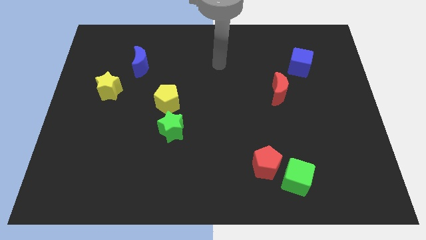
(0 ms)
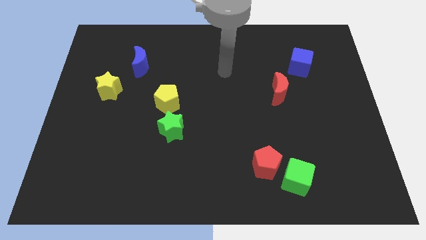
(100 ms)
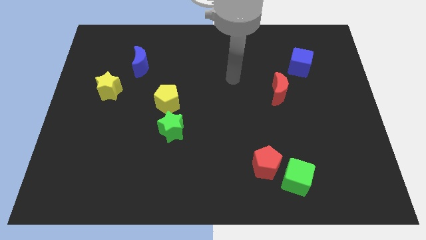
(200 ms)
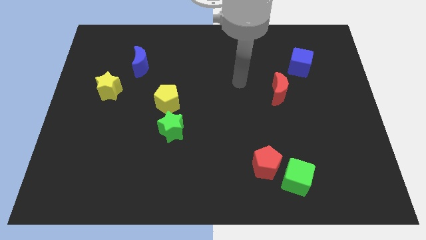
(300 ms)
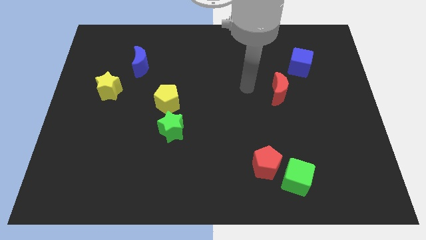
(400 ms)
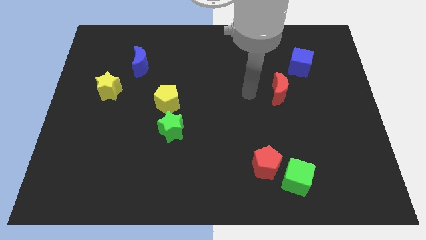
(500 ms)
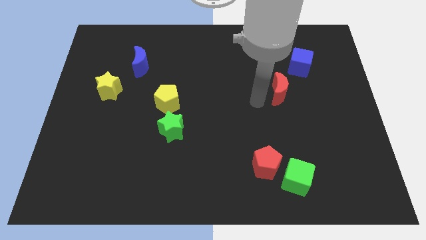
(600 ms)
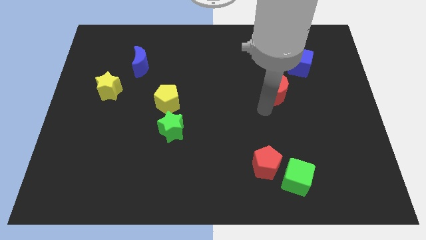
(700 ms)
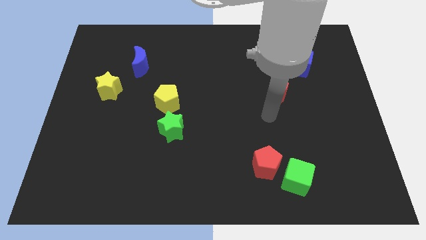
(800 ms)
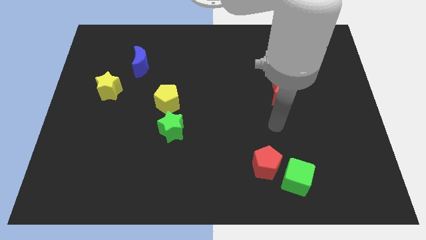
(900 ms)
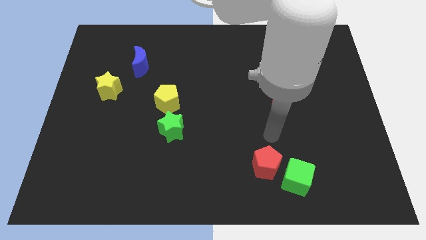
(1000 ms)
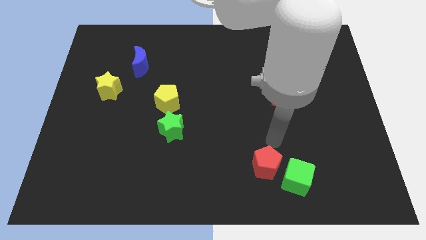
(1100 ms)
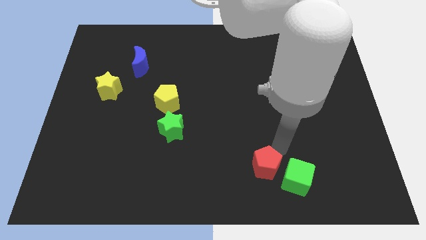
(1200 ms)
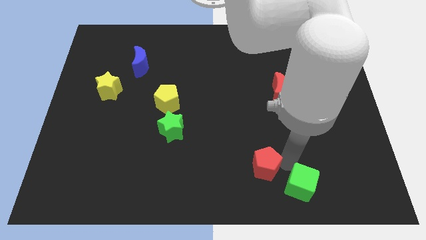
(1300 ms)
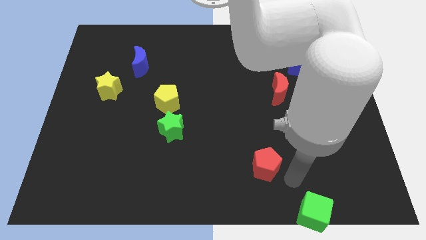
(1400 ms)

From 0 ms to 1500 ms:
pull the red pentagon apart from the green cube

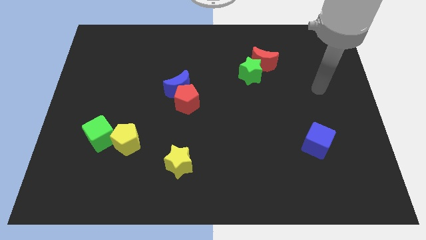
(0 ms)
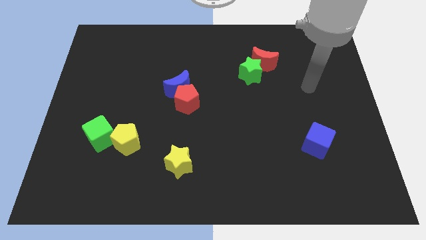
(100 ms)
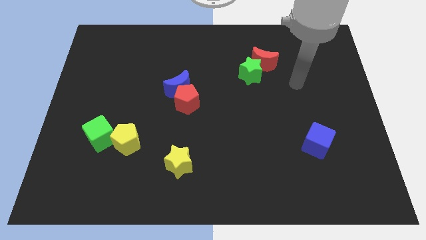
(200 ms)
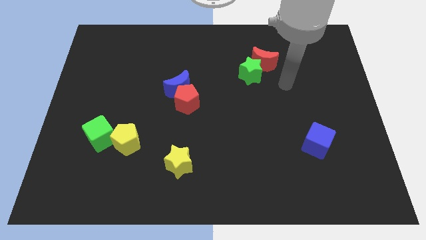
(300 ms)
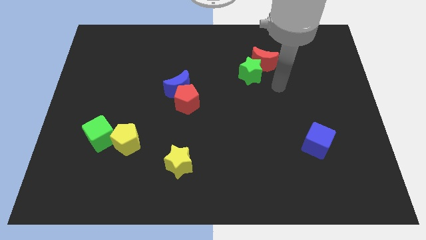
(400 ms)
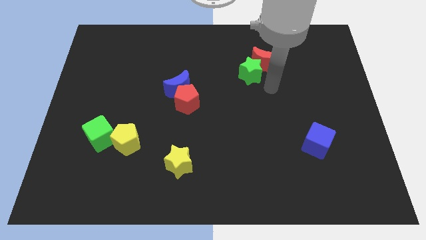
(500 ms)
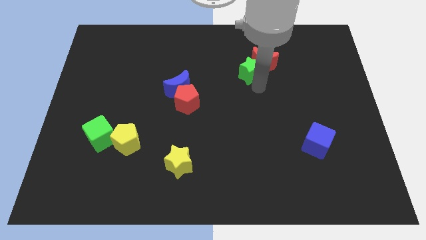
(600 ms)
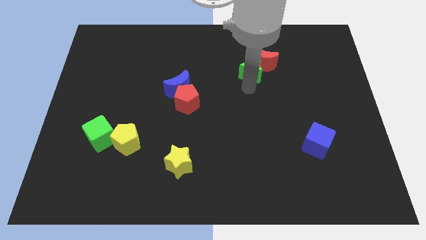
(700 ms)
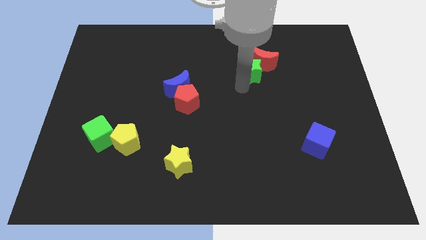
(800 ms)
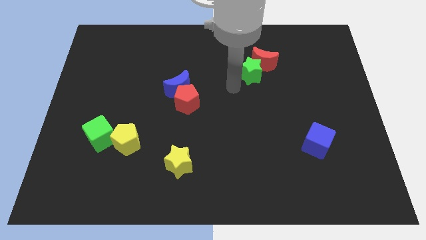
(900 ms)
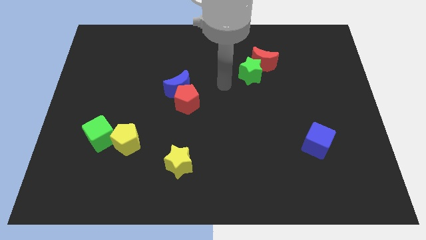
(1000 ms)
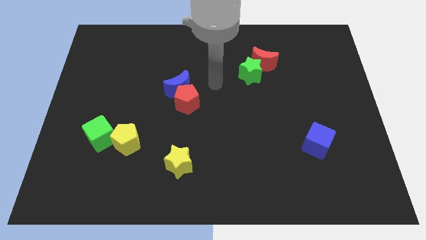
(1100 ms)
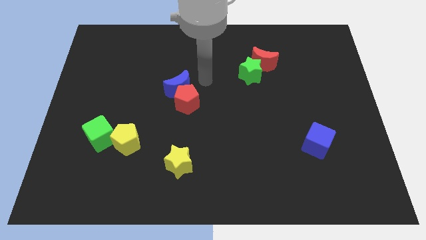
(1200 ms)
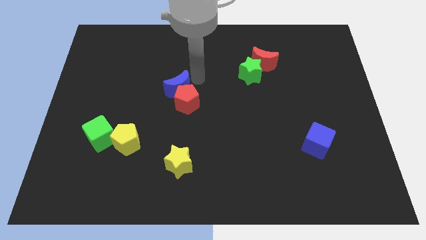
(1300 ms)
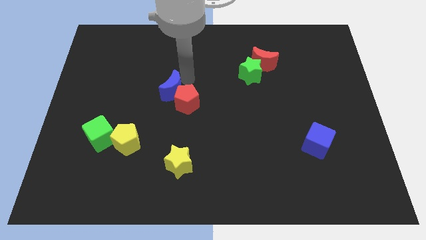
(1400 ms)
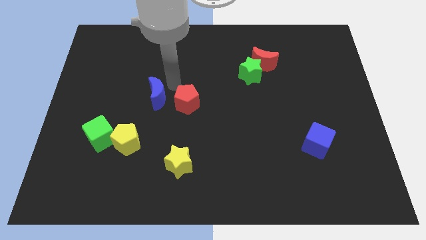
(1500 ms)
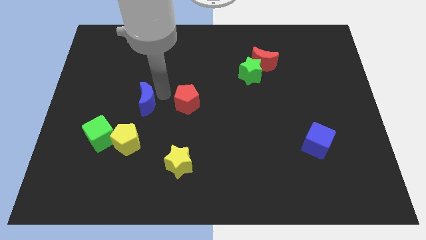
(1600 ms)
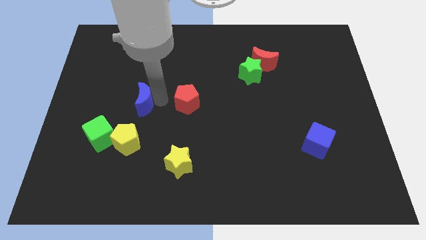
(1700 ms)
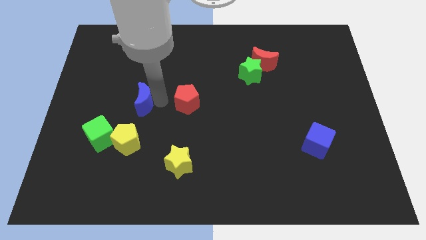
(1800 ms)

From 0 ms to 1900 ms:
move the red pentagon away from the blue moon

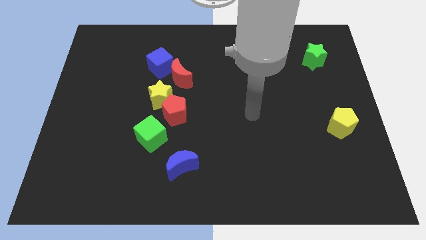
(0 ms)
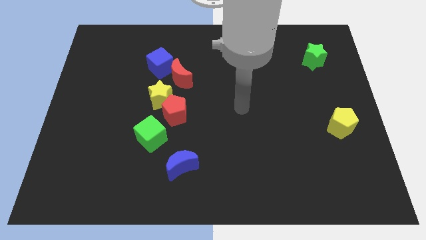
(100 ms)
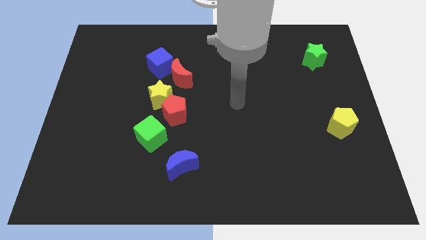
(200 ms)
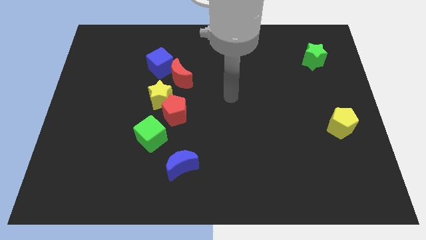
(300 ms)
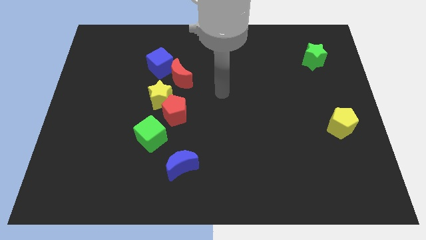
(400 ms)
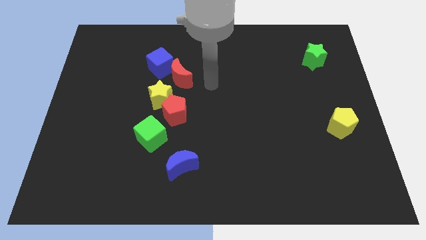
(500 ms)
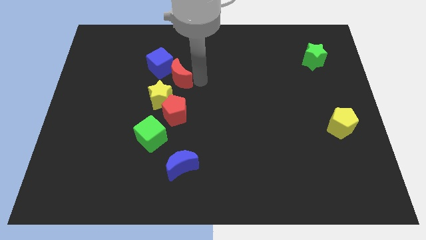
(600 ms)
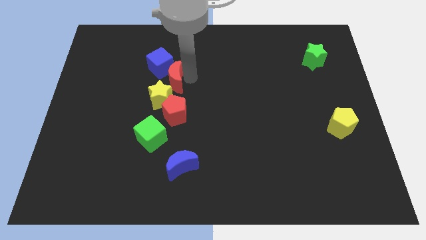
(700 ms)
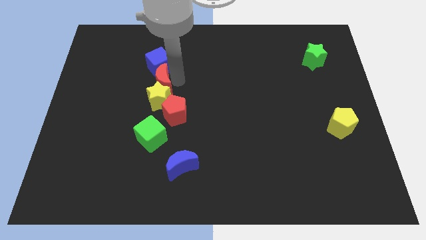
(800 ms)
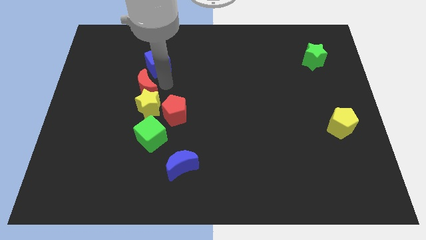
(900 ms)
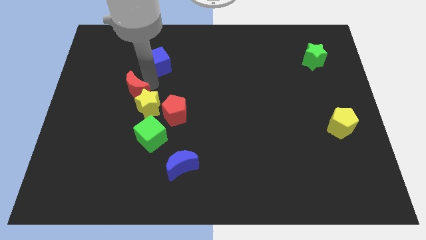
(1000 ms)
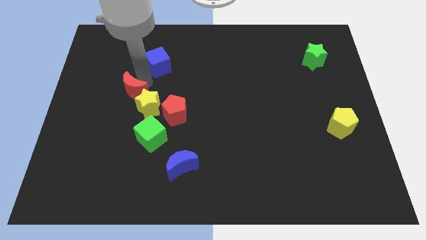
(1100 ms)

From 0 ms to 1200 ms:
separate the blue cube from the red moon

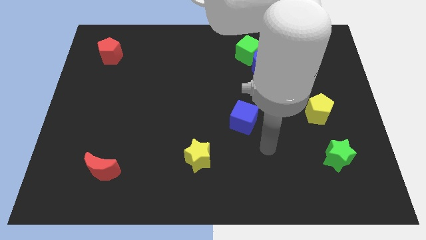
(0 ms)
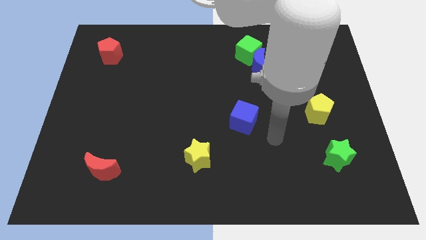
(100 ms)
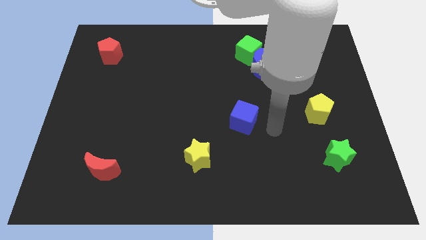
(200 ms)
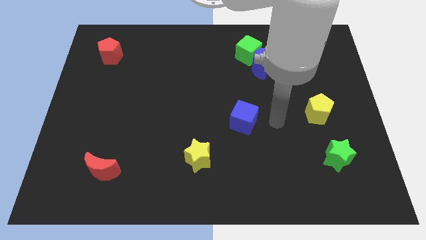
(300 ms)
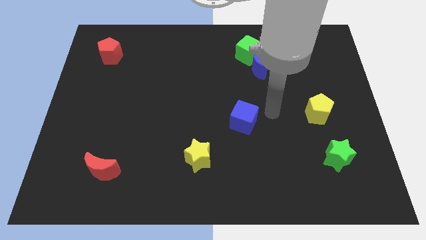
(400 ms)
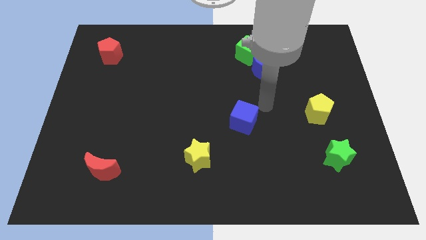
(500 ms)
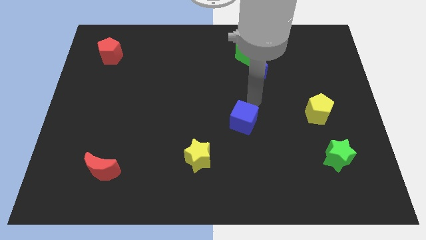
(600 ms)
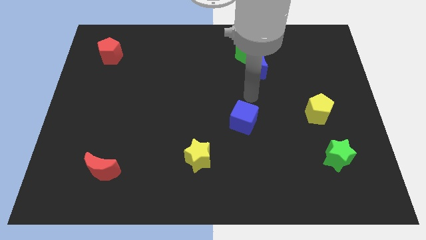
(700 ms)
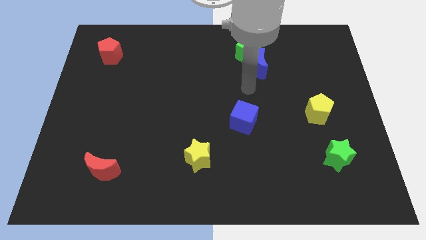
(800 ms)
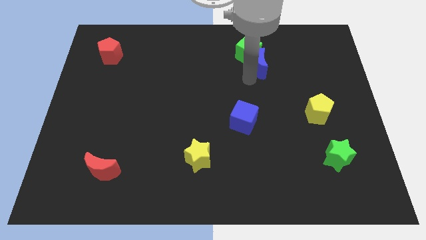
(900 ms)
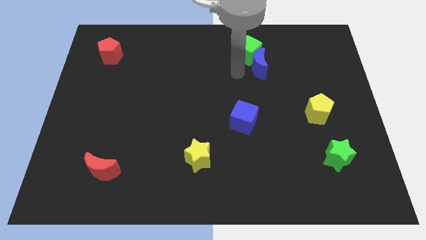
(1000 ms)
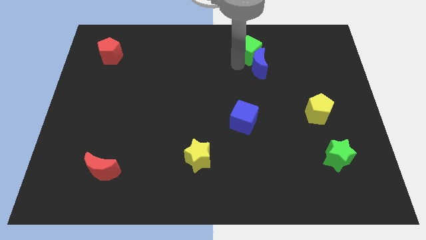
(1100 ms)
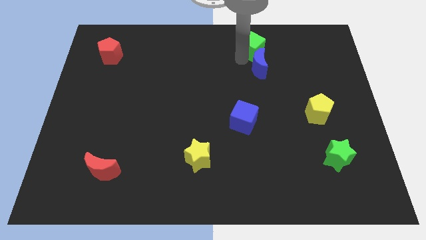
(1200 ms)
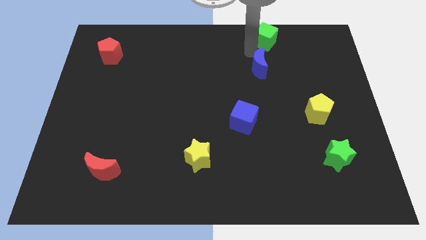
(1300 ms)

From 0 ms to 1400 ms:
move the blue moon away from the green cube

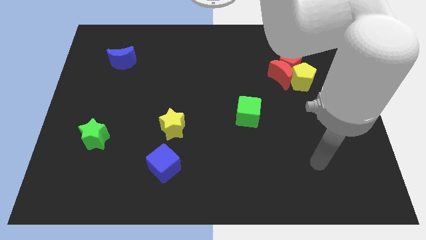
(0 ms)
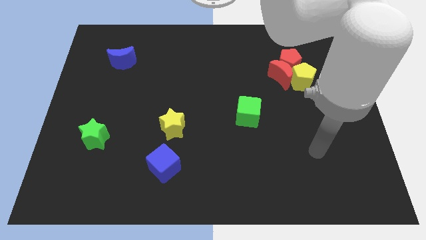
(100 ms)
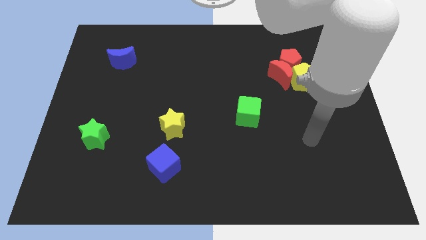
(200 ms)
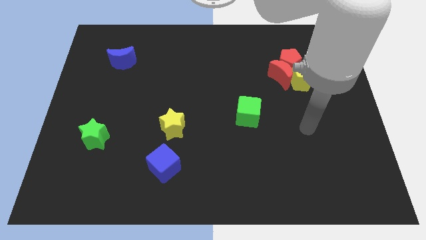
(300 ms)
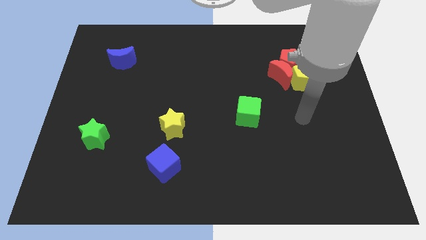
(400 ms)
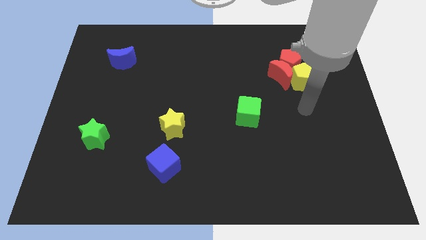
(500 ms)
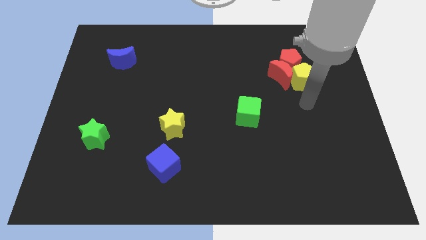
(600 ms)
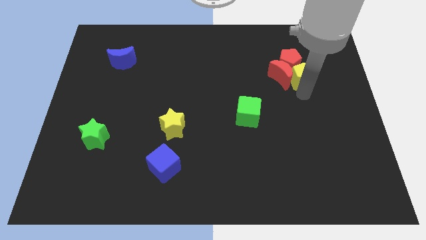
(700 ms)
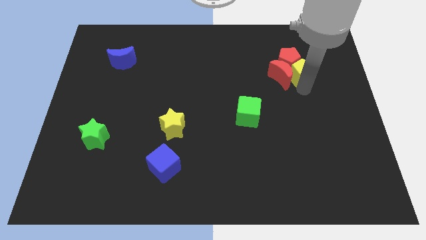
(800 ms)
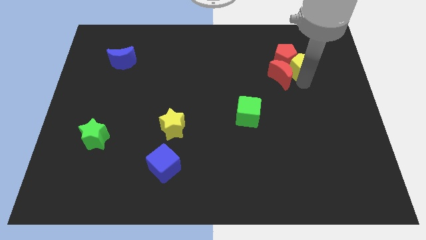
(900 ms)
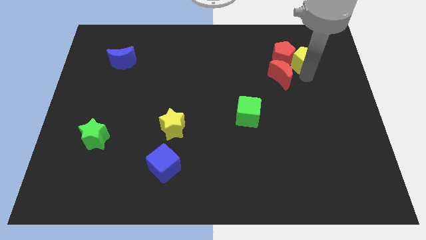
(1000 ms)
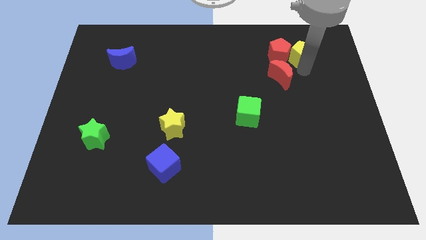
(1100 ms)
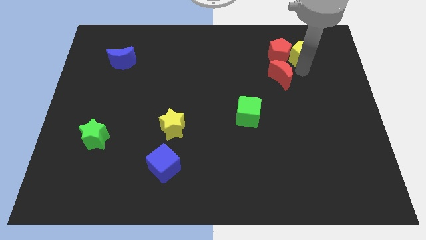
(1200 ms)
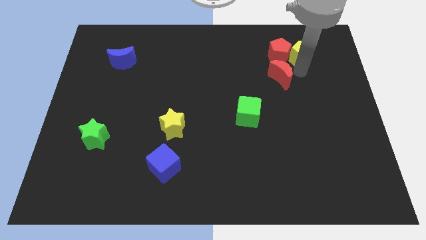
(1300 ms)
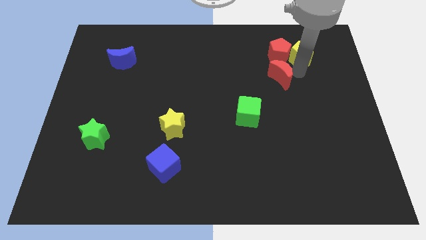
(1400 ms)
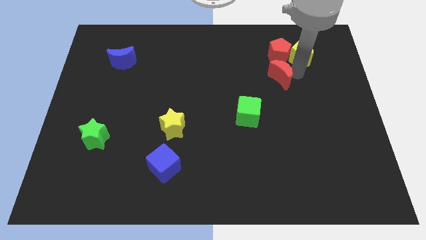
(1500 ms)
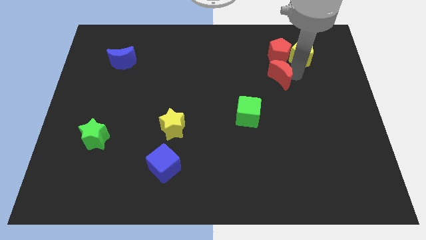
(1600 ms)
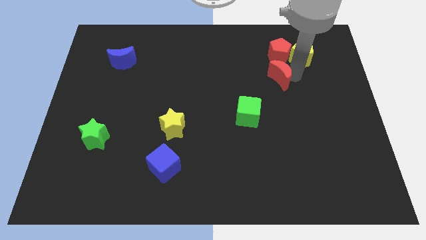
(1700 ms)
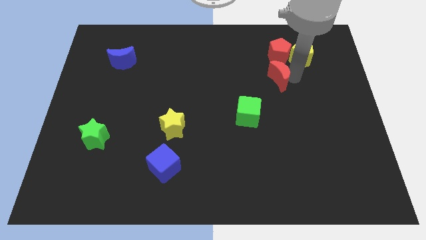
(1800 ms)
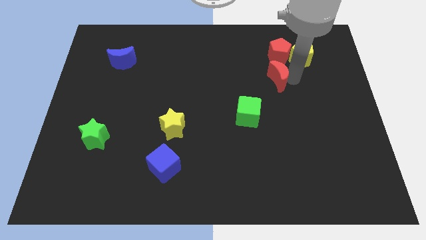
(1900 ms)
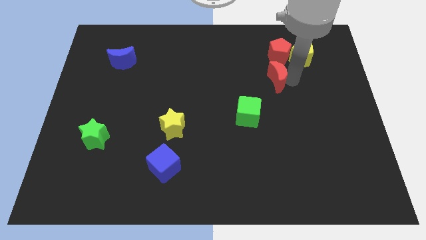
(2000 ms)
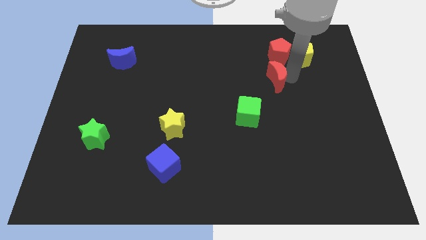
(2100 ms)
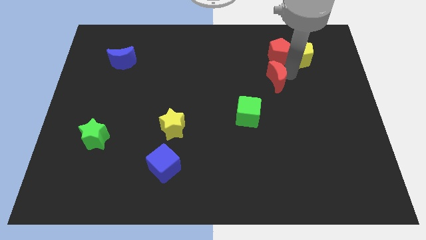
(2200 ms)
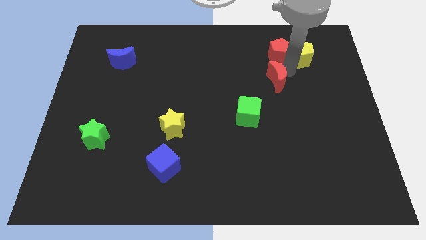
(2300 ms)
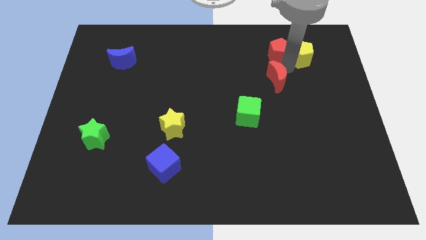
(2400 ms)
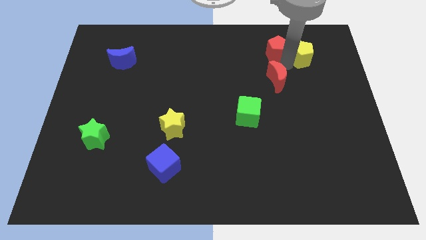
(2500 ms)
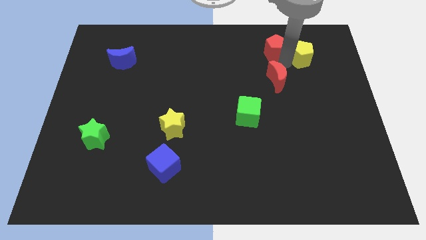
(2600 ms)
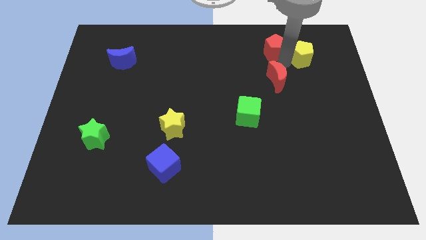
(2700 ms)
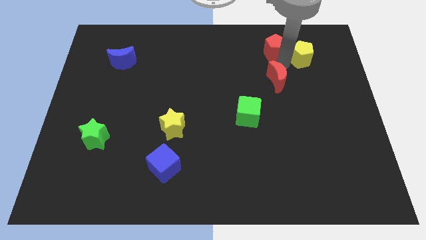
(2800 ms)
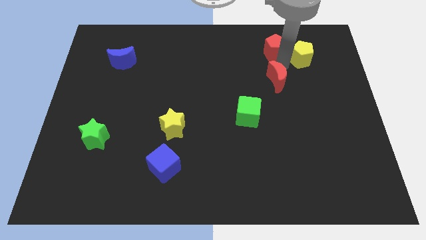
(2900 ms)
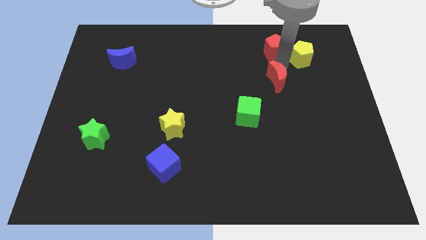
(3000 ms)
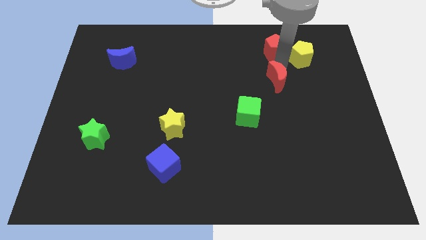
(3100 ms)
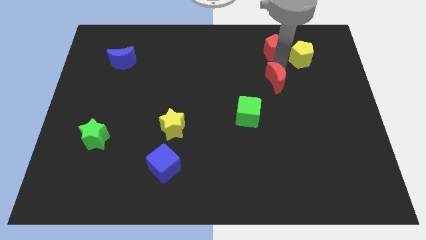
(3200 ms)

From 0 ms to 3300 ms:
separate the red moon from the red pentagon and yellow pentagon
